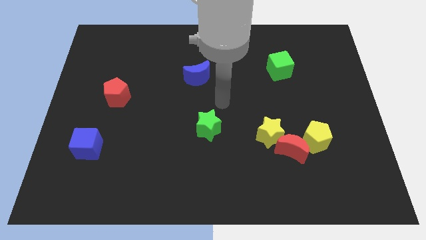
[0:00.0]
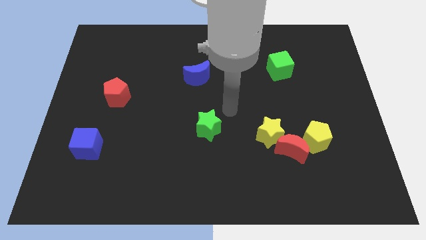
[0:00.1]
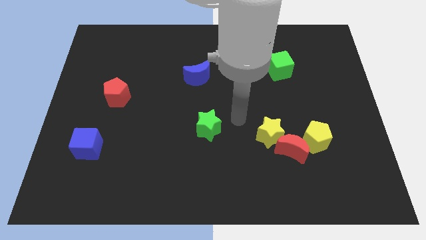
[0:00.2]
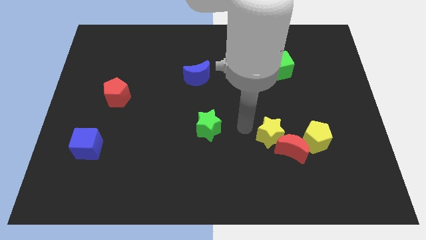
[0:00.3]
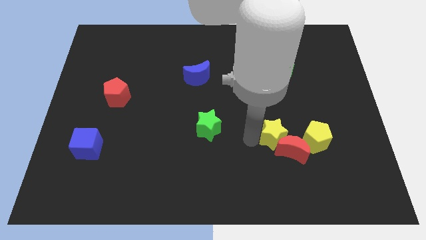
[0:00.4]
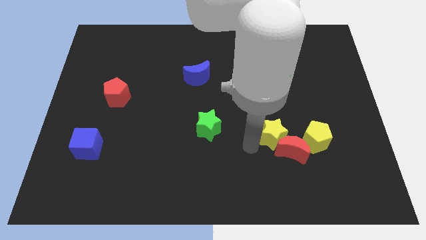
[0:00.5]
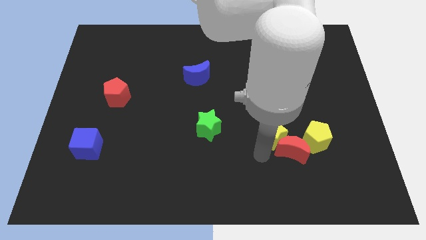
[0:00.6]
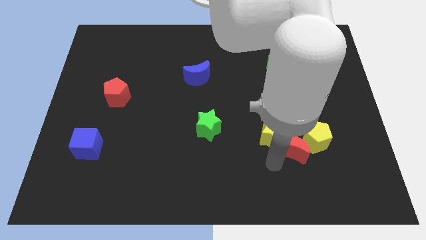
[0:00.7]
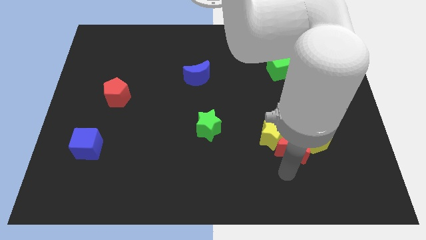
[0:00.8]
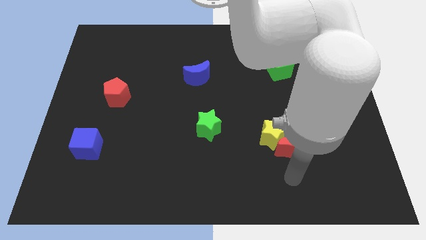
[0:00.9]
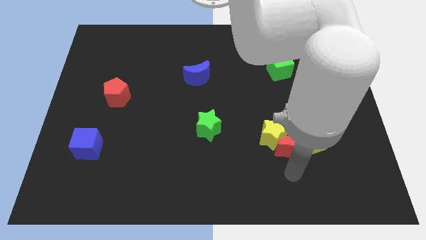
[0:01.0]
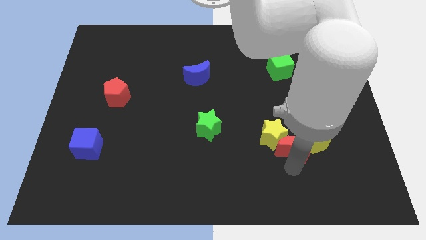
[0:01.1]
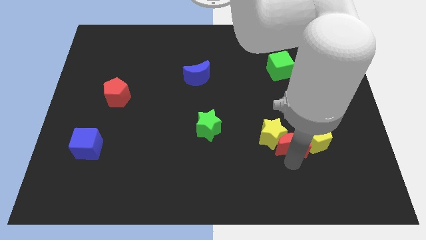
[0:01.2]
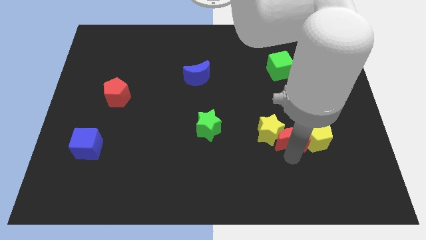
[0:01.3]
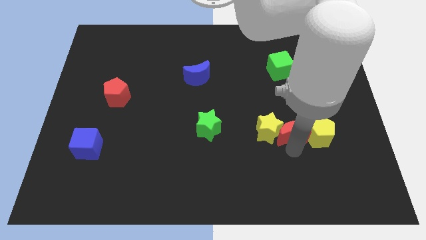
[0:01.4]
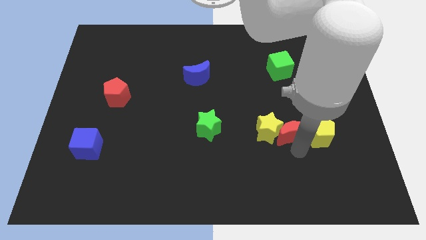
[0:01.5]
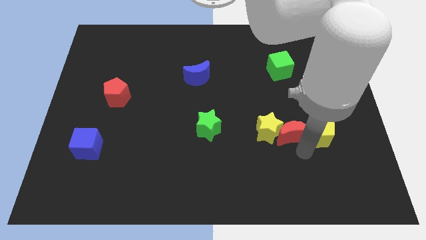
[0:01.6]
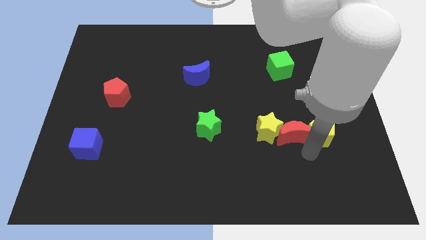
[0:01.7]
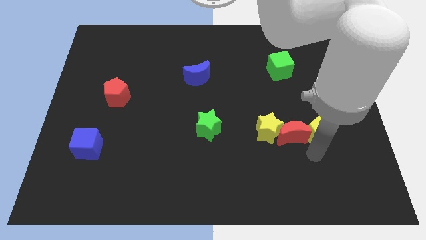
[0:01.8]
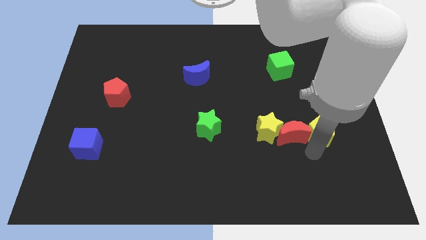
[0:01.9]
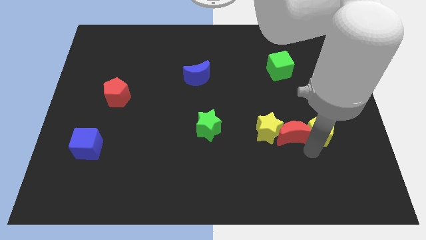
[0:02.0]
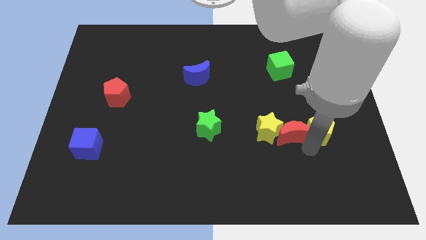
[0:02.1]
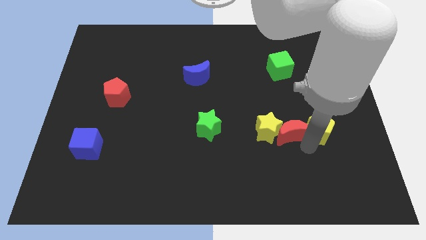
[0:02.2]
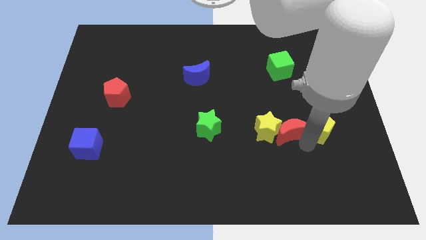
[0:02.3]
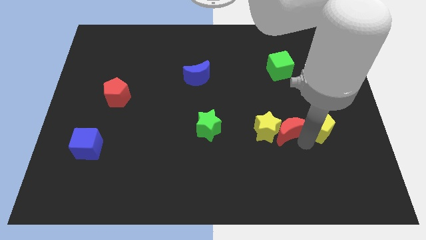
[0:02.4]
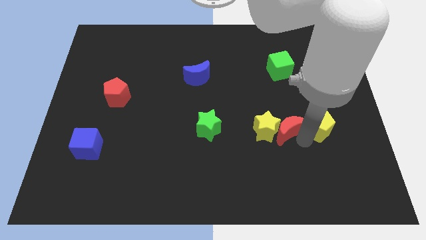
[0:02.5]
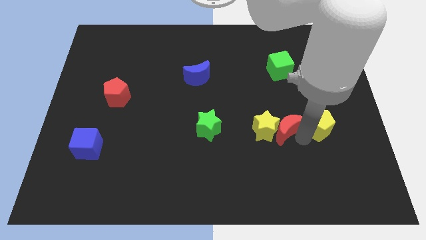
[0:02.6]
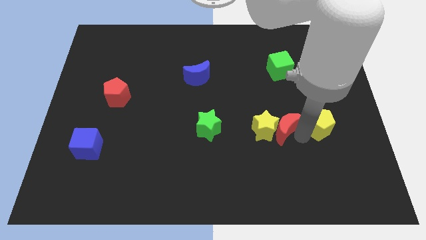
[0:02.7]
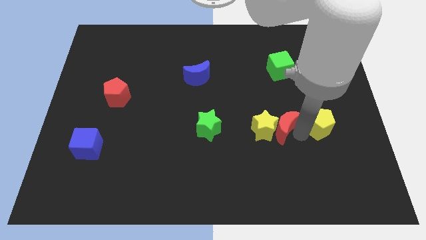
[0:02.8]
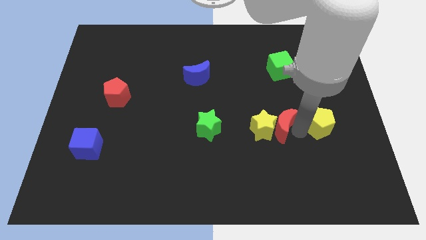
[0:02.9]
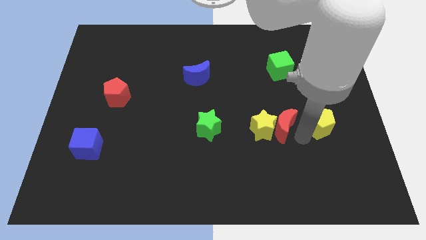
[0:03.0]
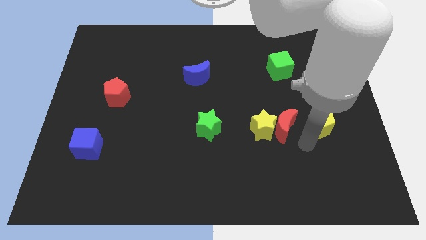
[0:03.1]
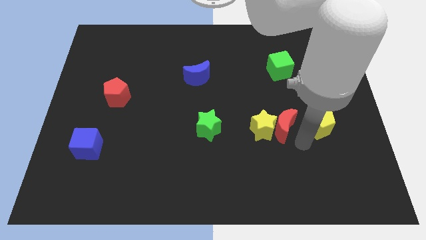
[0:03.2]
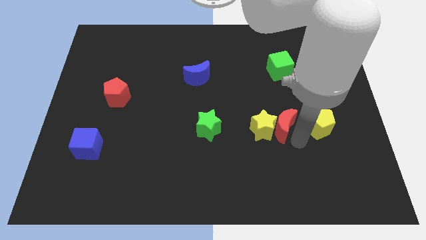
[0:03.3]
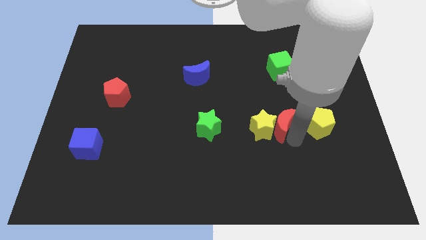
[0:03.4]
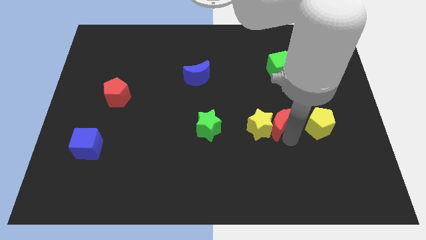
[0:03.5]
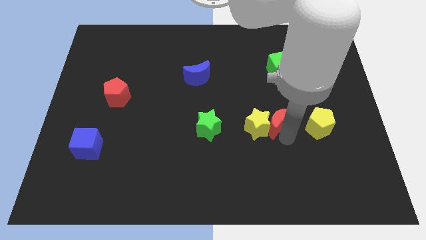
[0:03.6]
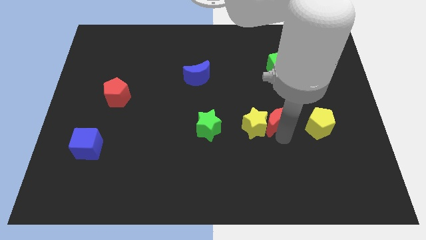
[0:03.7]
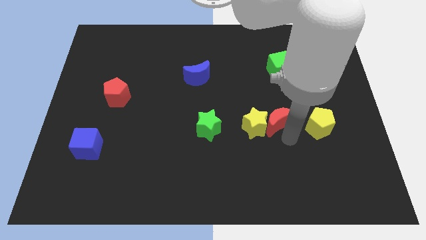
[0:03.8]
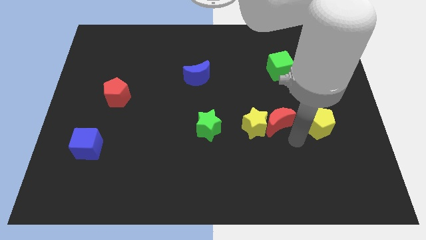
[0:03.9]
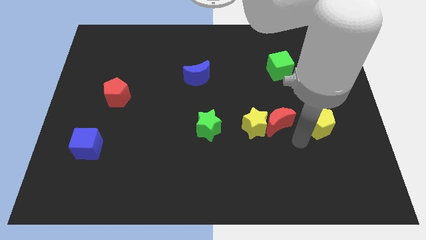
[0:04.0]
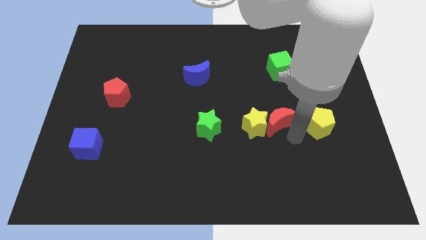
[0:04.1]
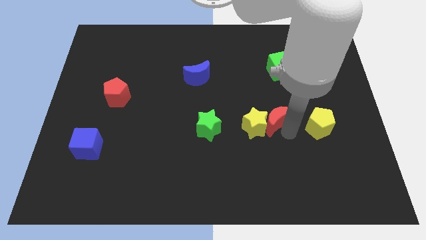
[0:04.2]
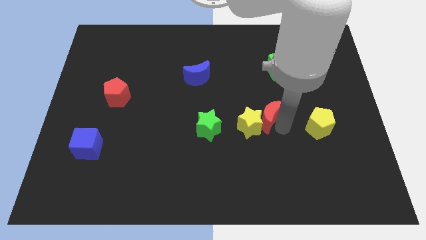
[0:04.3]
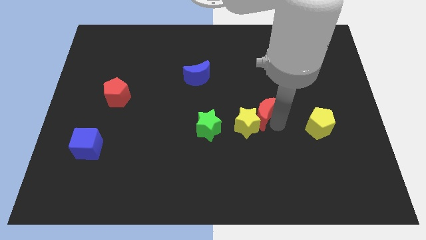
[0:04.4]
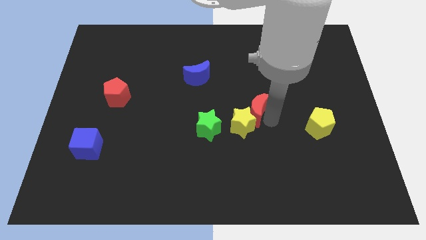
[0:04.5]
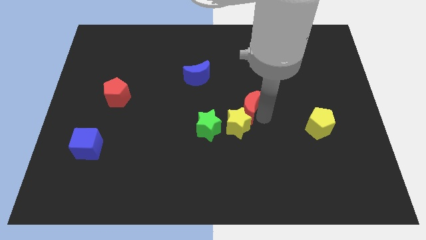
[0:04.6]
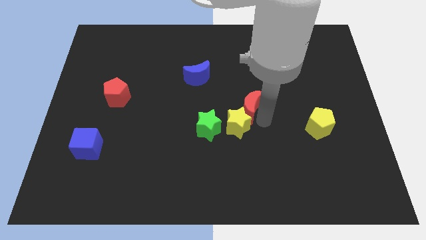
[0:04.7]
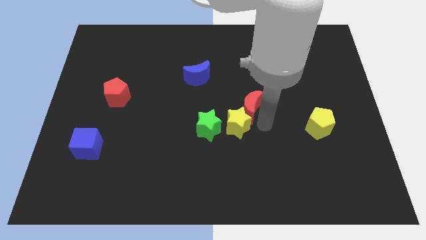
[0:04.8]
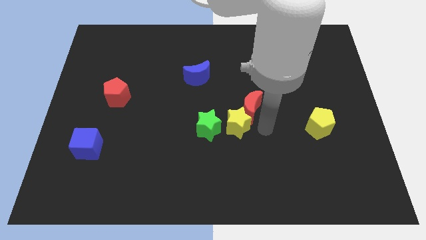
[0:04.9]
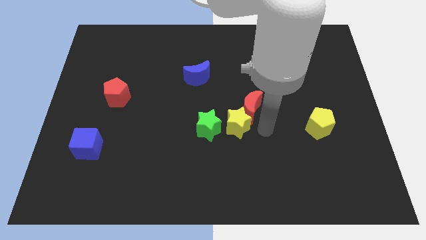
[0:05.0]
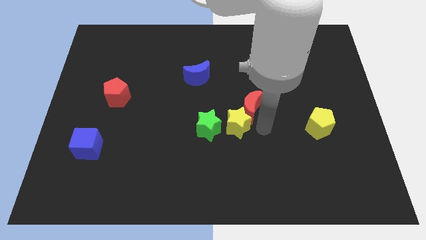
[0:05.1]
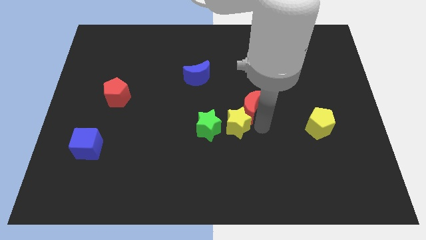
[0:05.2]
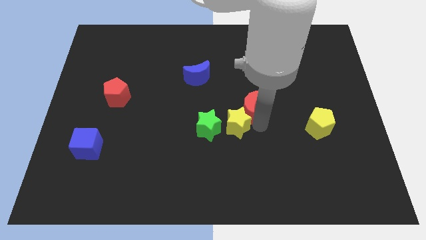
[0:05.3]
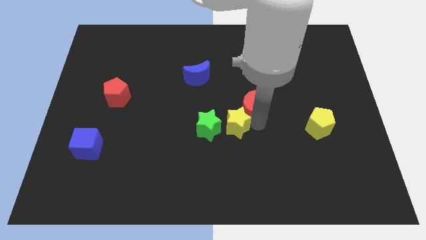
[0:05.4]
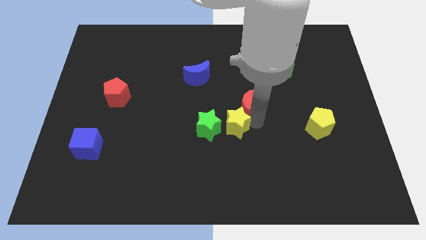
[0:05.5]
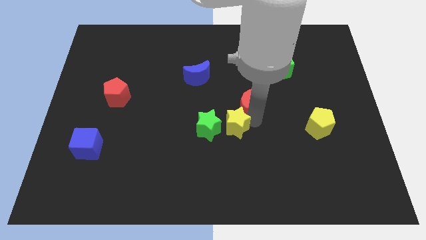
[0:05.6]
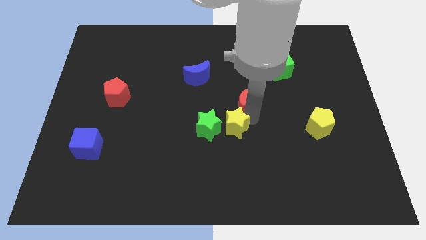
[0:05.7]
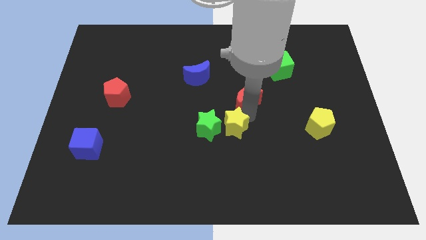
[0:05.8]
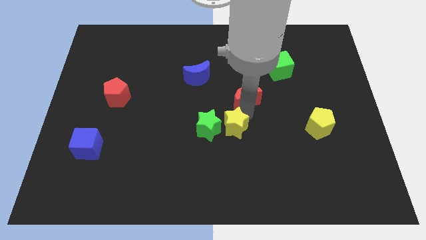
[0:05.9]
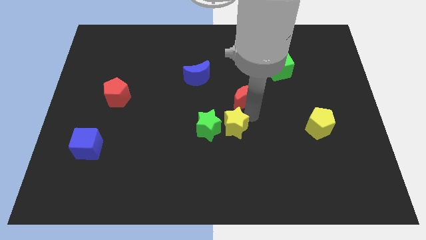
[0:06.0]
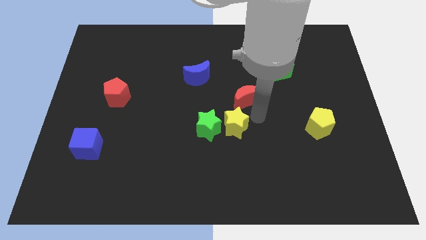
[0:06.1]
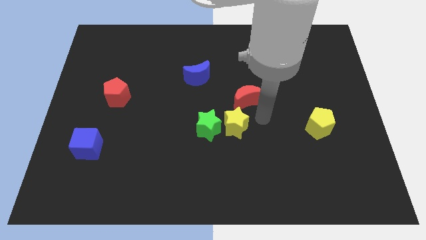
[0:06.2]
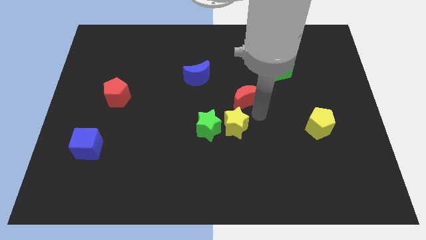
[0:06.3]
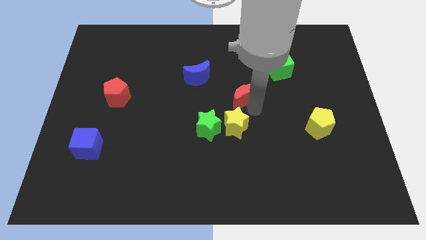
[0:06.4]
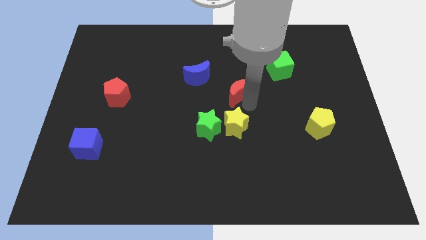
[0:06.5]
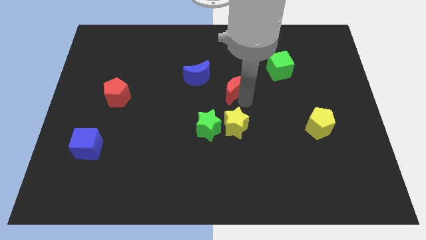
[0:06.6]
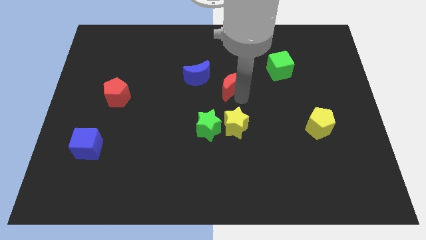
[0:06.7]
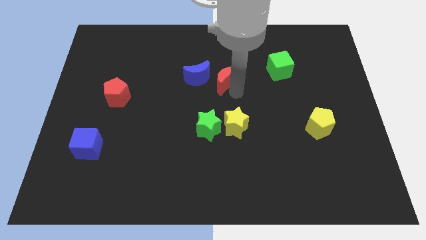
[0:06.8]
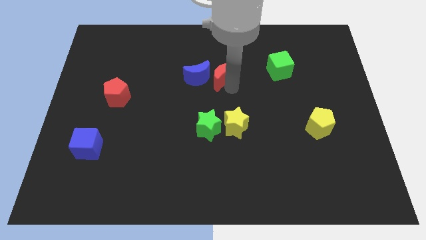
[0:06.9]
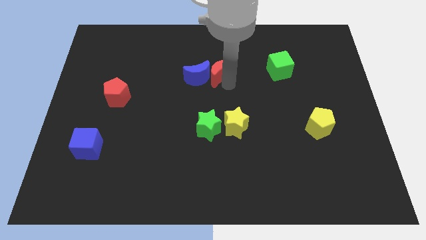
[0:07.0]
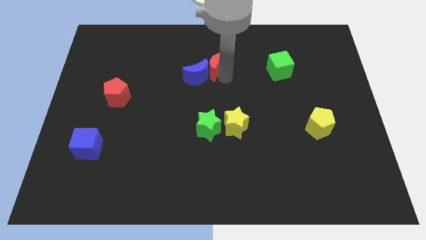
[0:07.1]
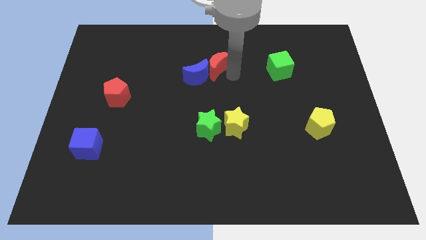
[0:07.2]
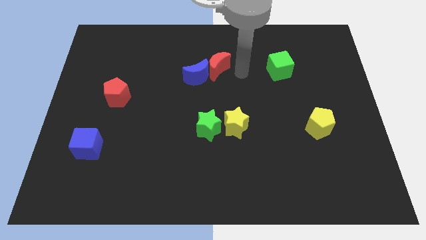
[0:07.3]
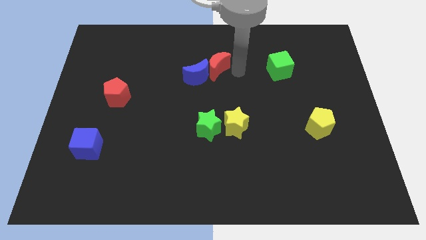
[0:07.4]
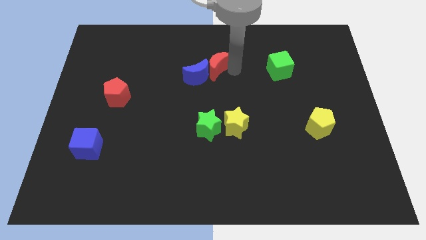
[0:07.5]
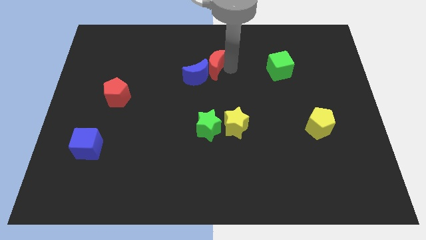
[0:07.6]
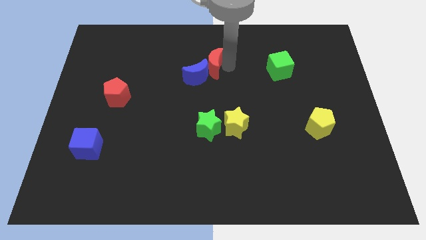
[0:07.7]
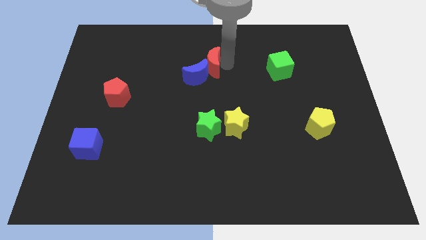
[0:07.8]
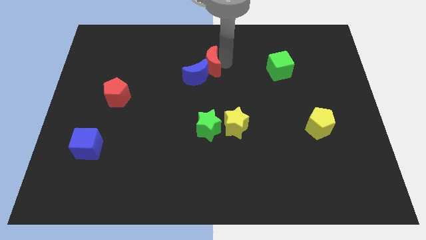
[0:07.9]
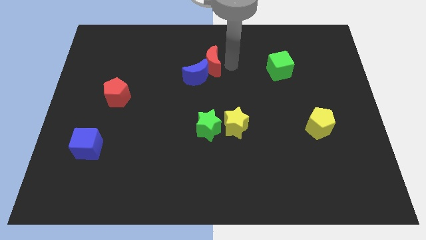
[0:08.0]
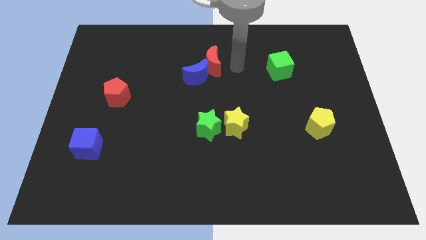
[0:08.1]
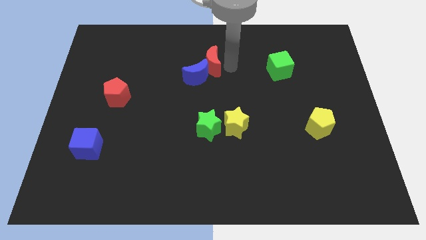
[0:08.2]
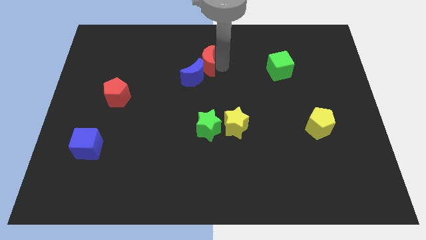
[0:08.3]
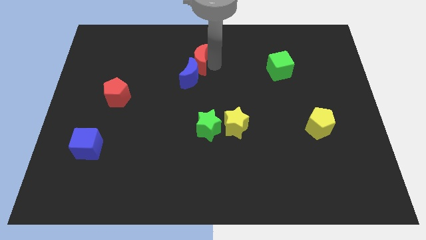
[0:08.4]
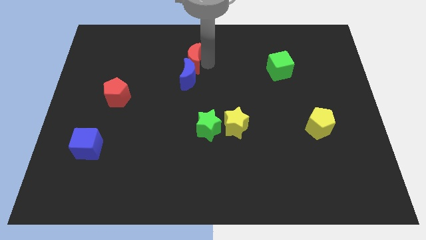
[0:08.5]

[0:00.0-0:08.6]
move the red moon diagonally up and to the left of the blue moon
